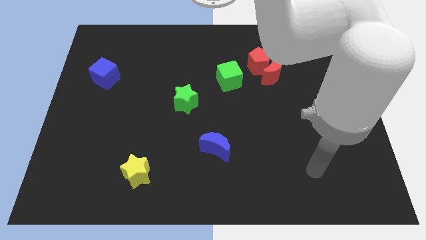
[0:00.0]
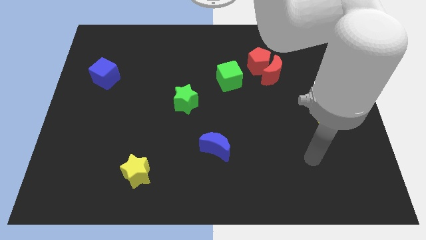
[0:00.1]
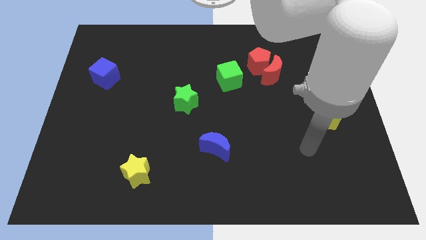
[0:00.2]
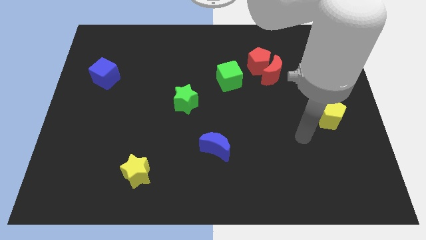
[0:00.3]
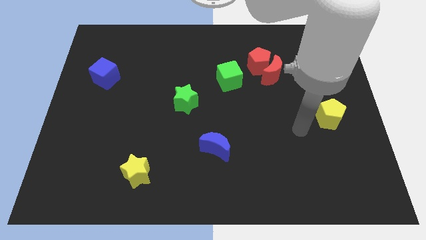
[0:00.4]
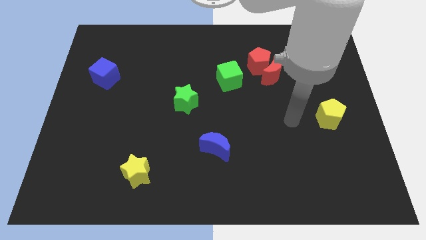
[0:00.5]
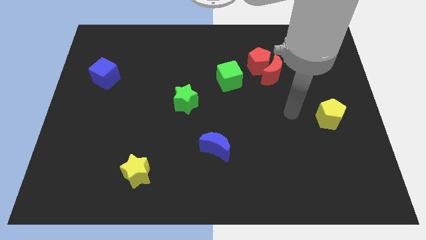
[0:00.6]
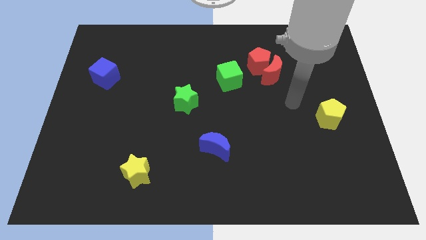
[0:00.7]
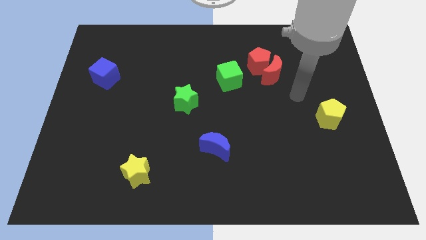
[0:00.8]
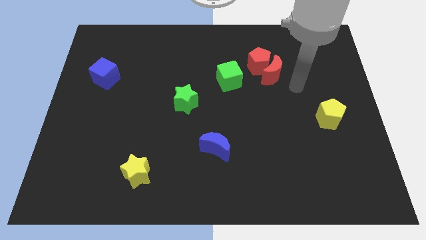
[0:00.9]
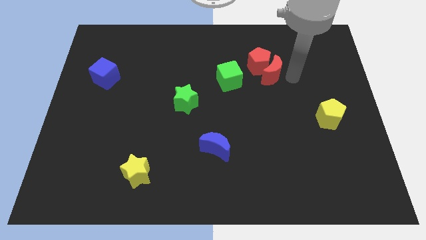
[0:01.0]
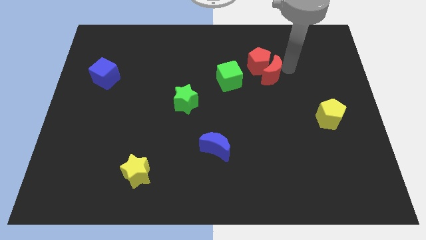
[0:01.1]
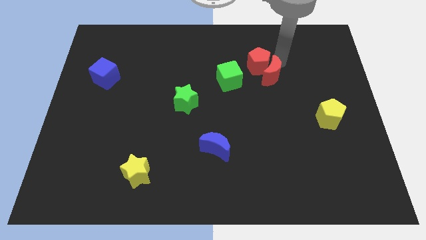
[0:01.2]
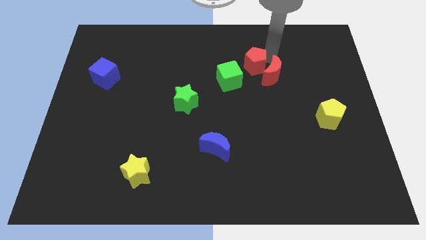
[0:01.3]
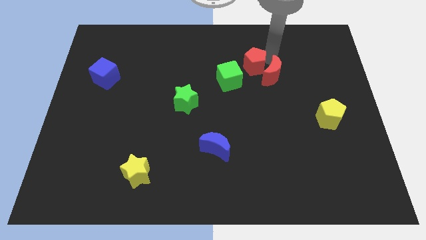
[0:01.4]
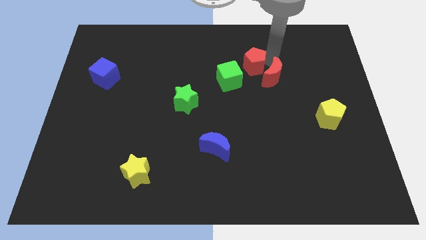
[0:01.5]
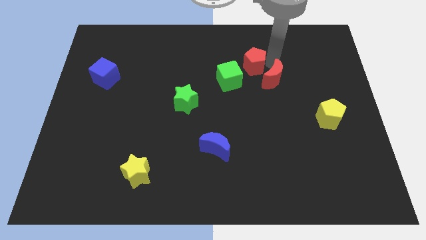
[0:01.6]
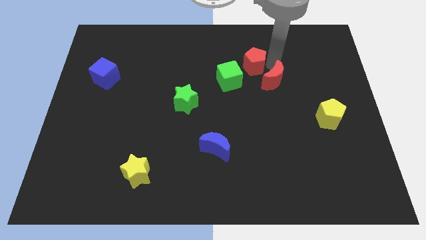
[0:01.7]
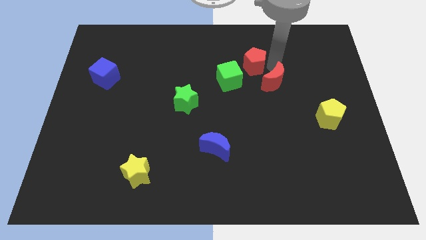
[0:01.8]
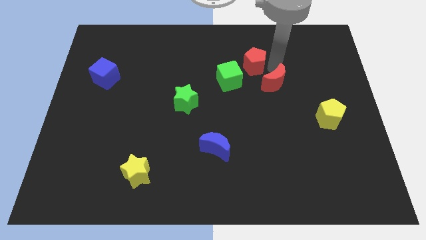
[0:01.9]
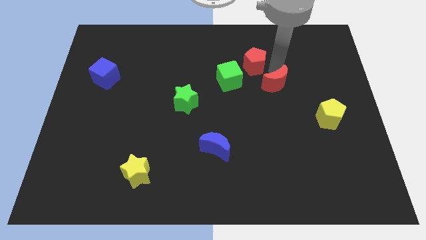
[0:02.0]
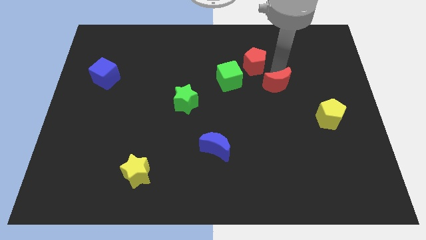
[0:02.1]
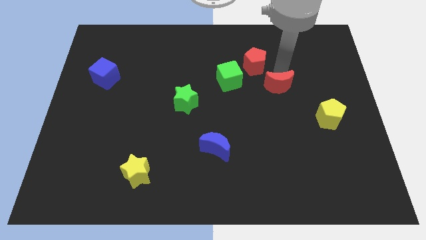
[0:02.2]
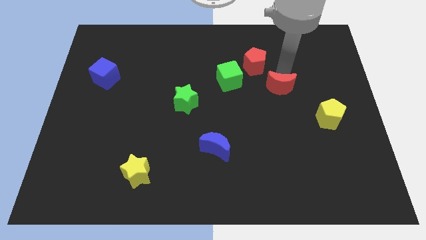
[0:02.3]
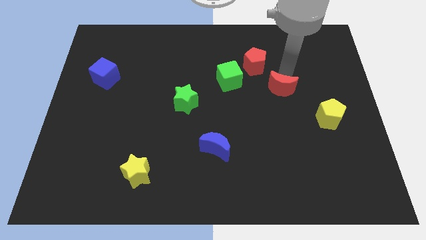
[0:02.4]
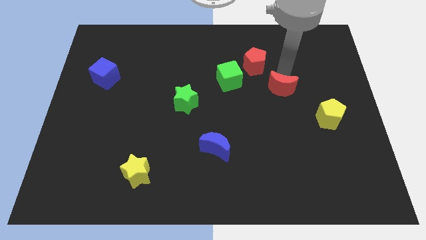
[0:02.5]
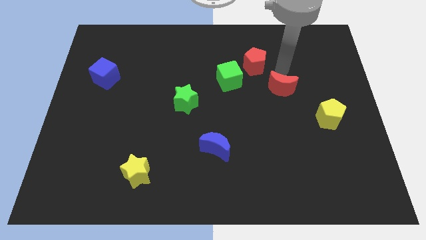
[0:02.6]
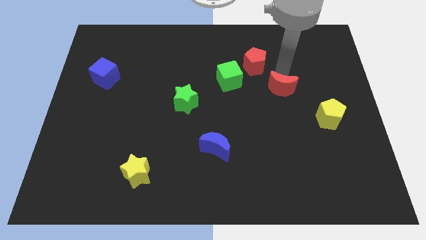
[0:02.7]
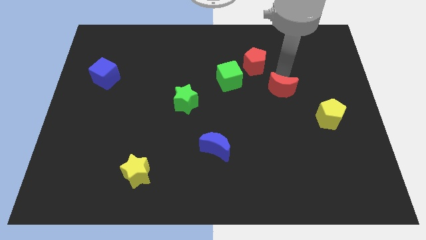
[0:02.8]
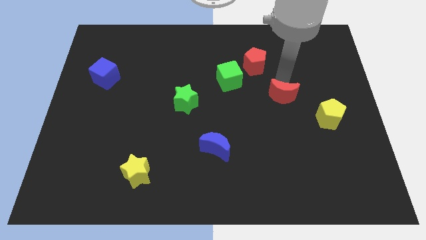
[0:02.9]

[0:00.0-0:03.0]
move the red moon down slightly

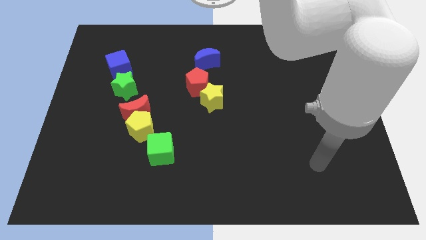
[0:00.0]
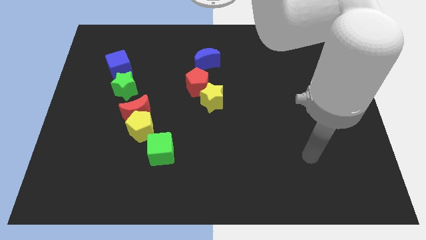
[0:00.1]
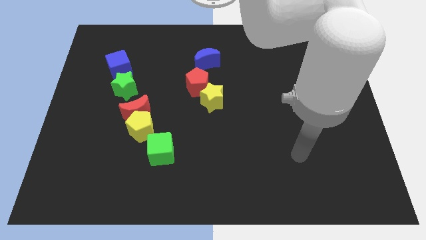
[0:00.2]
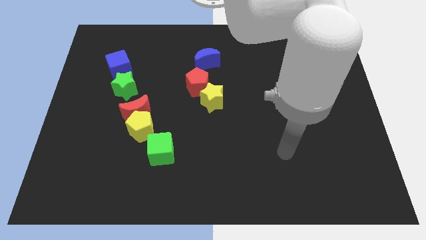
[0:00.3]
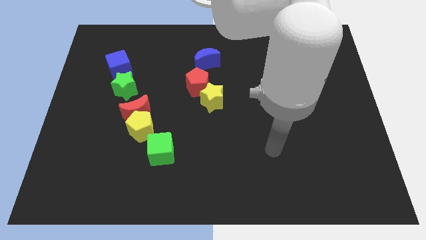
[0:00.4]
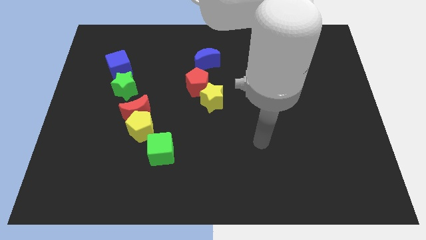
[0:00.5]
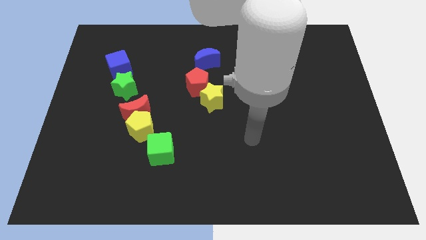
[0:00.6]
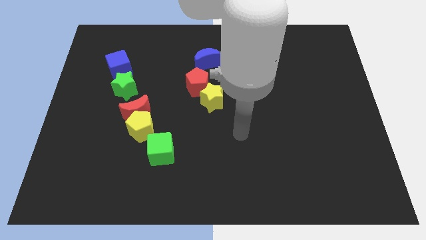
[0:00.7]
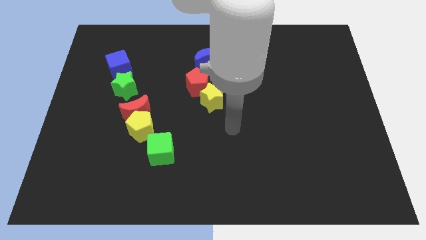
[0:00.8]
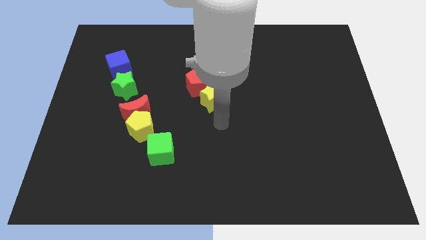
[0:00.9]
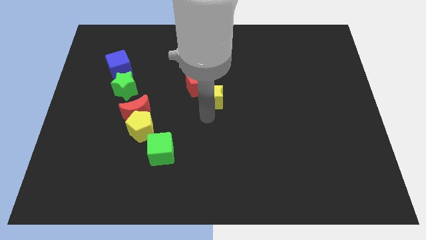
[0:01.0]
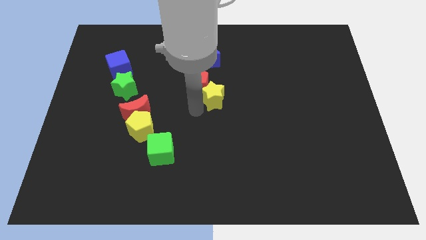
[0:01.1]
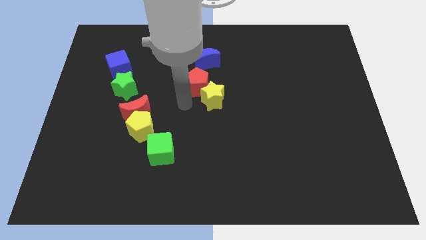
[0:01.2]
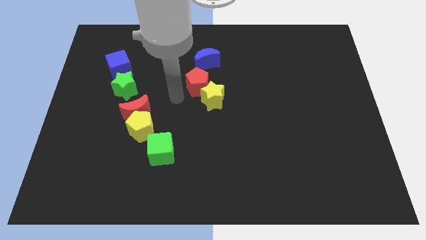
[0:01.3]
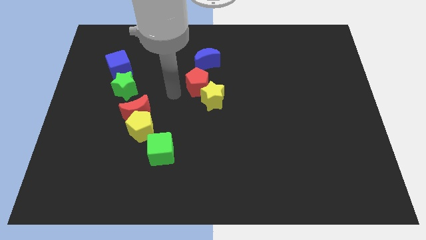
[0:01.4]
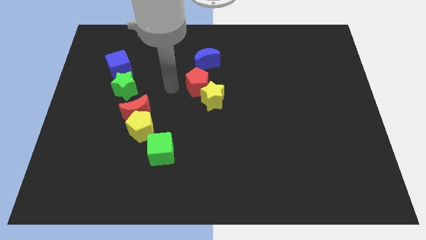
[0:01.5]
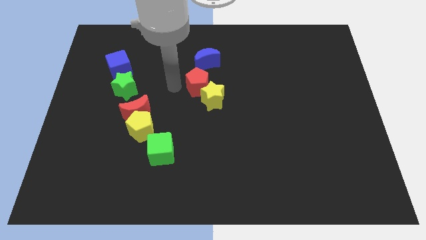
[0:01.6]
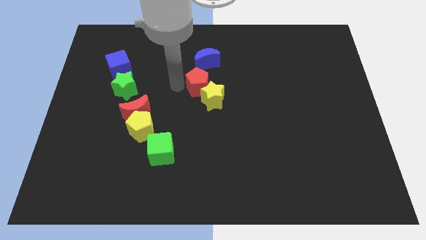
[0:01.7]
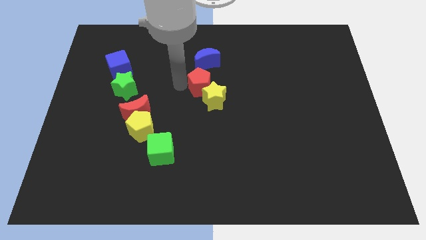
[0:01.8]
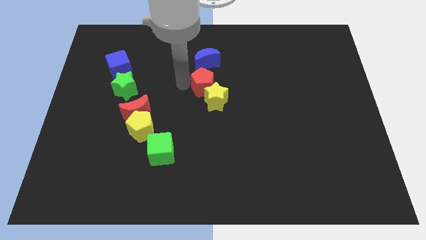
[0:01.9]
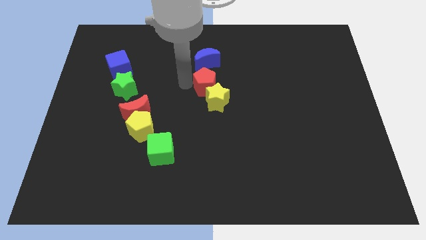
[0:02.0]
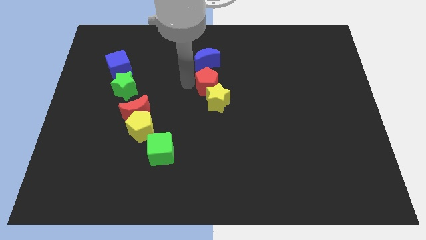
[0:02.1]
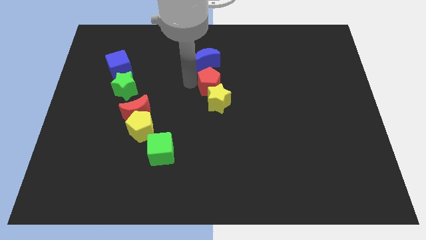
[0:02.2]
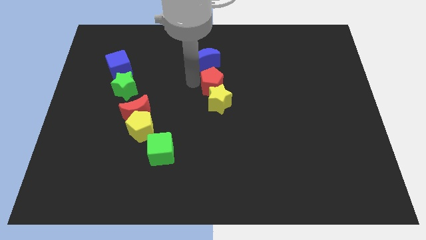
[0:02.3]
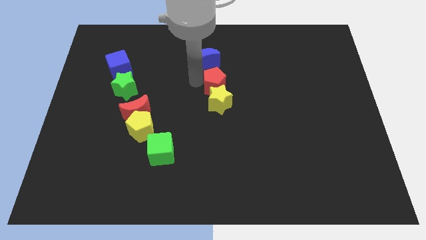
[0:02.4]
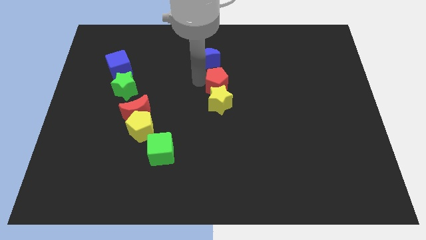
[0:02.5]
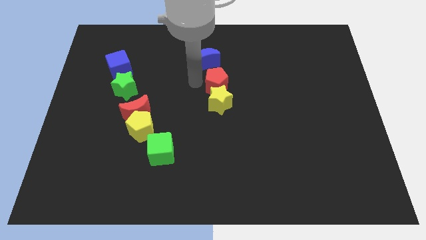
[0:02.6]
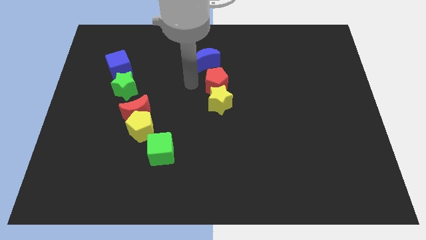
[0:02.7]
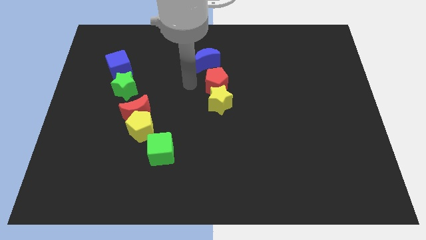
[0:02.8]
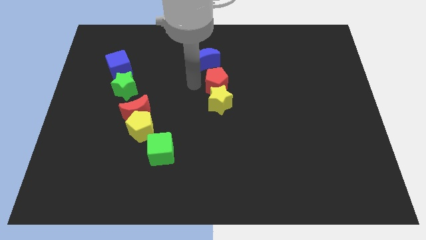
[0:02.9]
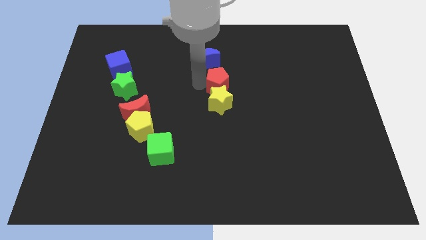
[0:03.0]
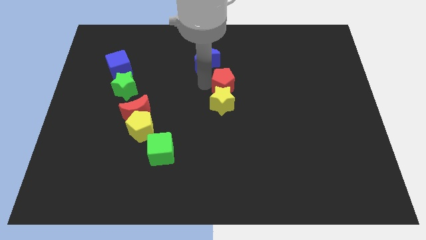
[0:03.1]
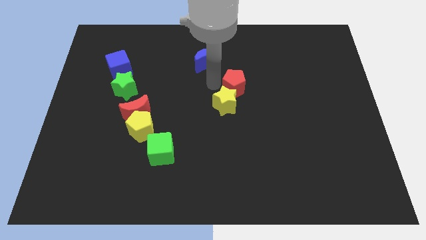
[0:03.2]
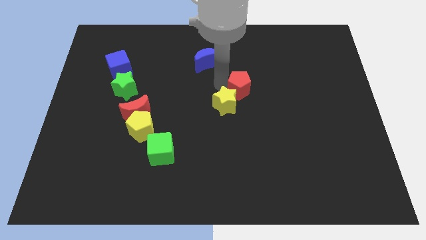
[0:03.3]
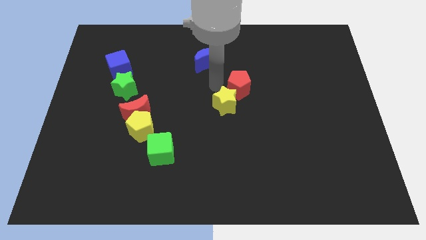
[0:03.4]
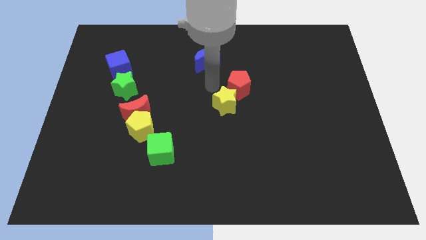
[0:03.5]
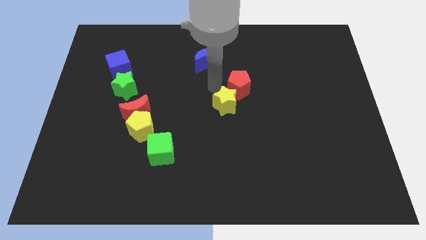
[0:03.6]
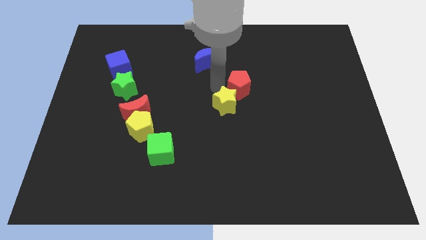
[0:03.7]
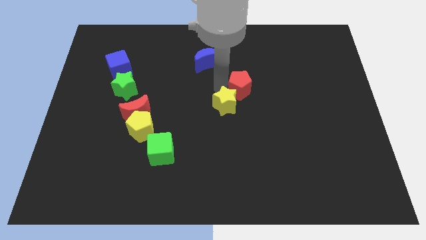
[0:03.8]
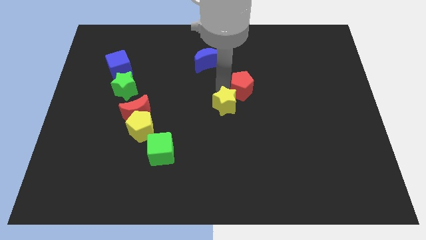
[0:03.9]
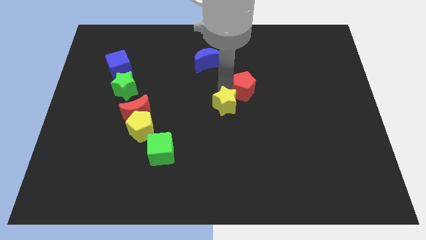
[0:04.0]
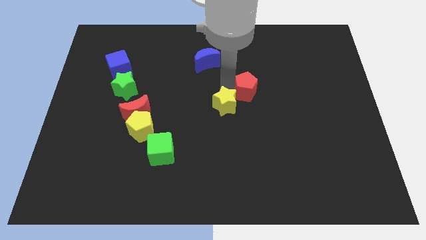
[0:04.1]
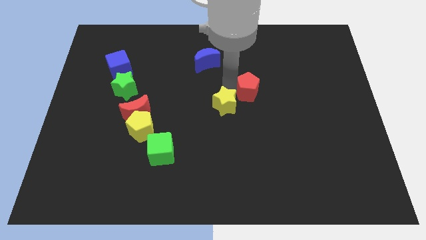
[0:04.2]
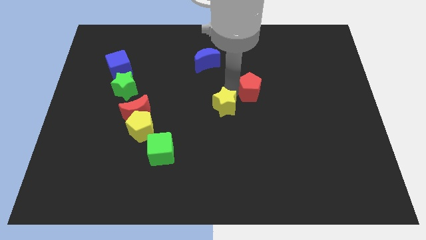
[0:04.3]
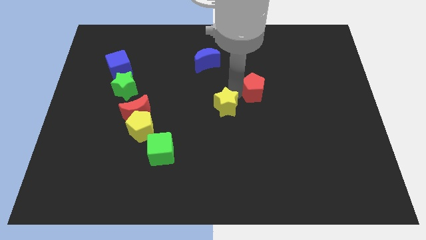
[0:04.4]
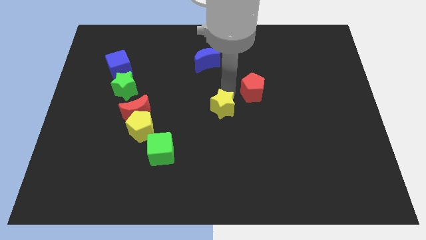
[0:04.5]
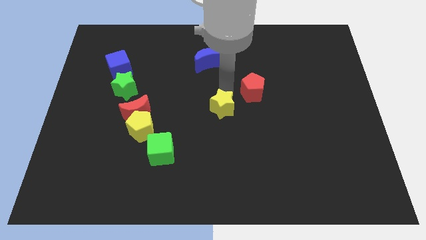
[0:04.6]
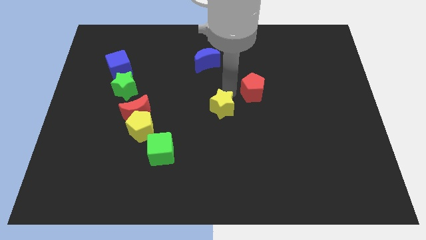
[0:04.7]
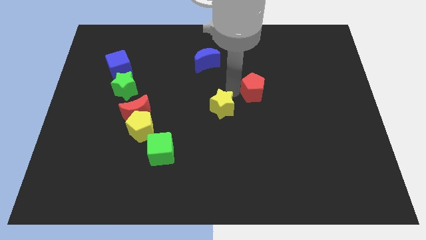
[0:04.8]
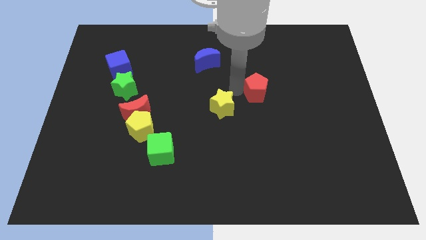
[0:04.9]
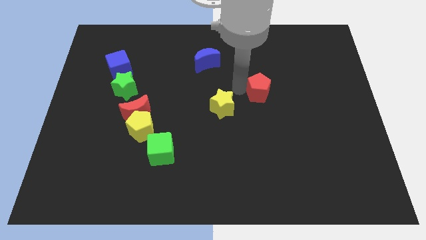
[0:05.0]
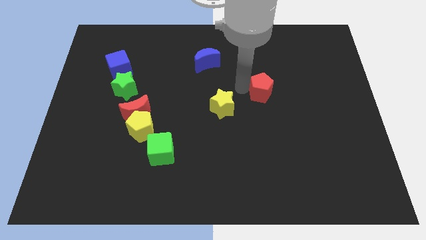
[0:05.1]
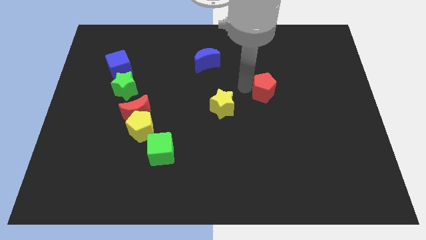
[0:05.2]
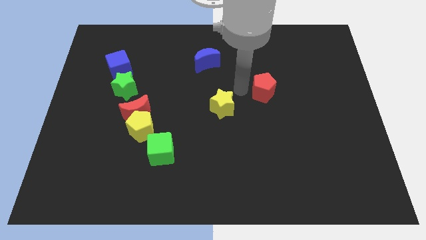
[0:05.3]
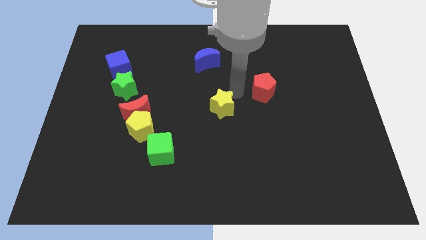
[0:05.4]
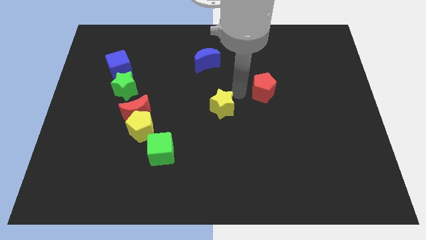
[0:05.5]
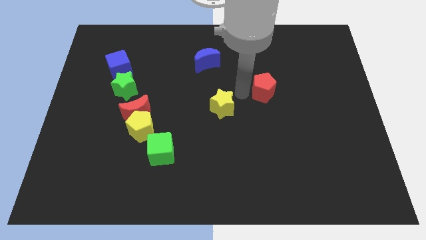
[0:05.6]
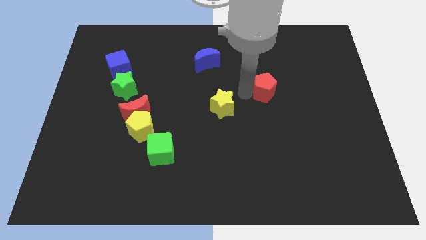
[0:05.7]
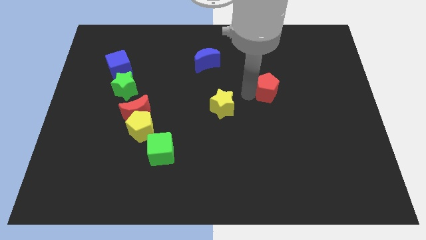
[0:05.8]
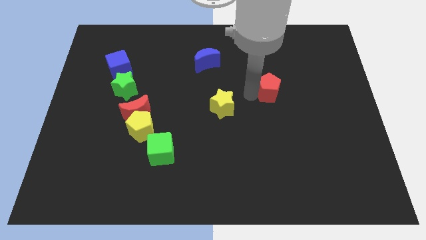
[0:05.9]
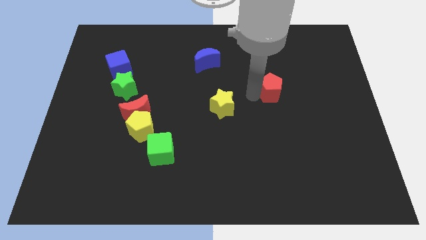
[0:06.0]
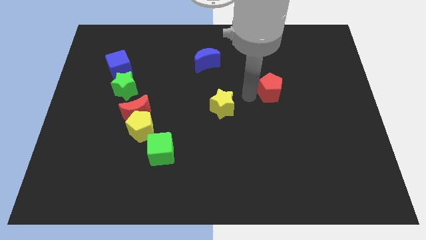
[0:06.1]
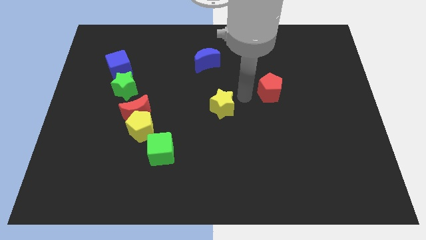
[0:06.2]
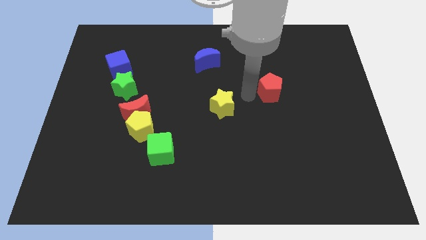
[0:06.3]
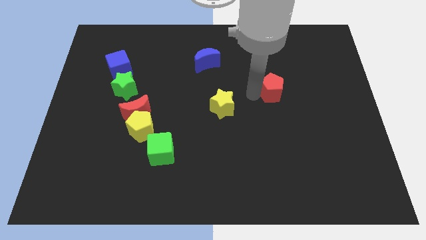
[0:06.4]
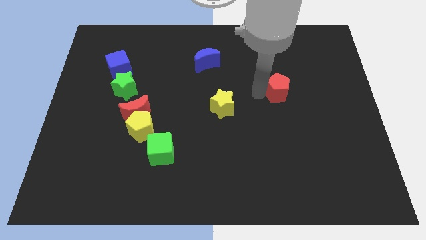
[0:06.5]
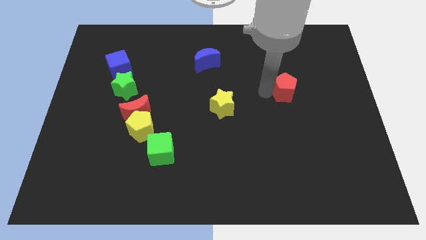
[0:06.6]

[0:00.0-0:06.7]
slide the red pentagon to the right
